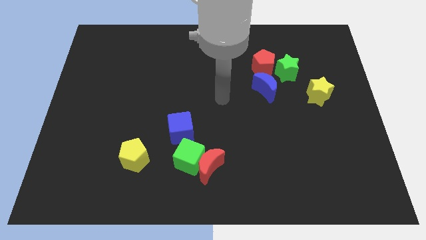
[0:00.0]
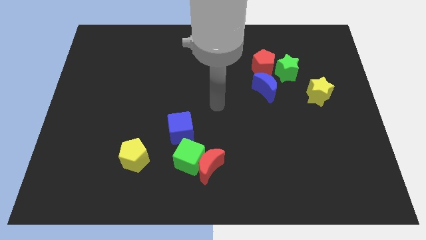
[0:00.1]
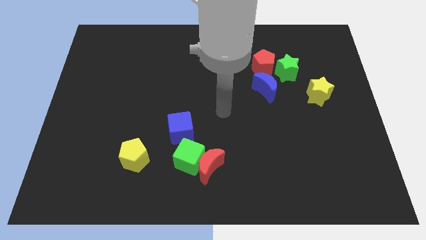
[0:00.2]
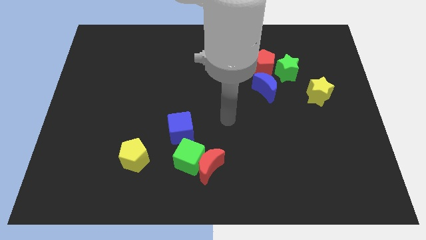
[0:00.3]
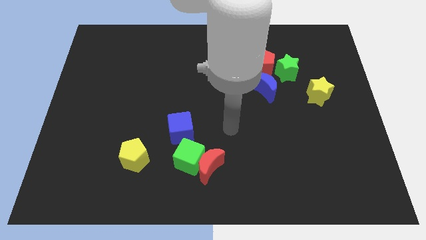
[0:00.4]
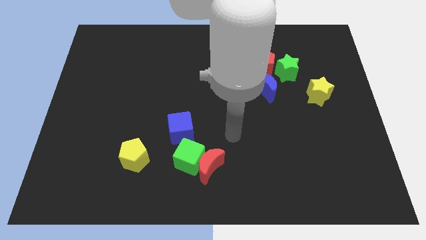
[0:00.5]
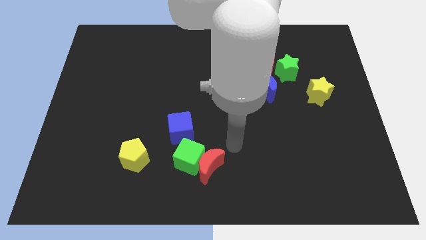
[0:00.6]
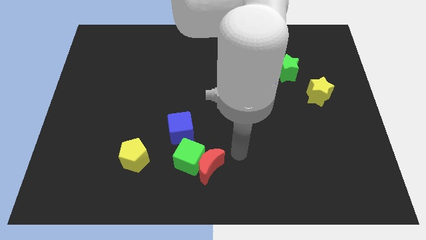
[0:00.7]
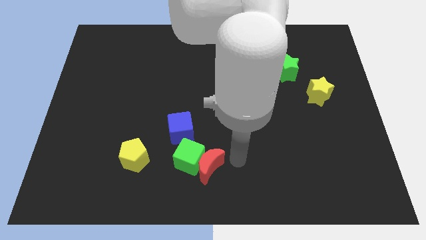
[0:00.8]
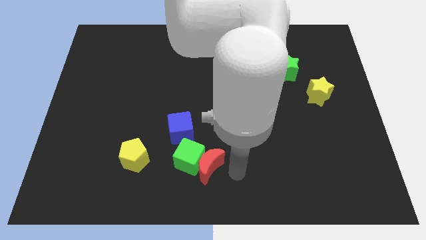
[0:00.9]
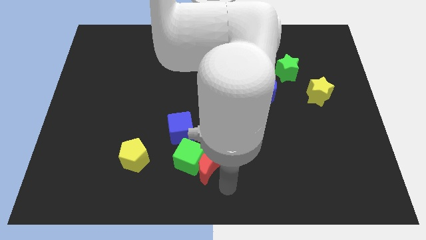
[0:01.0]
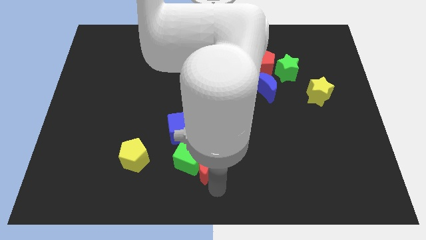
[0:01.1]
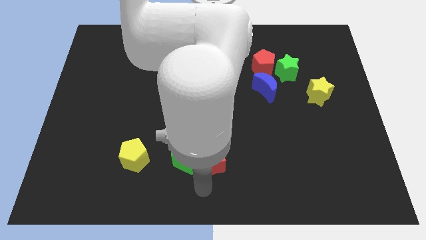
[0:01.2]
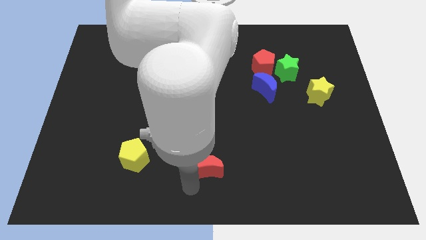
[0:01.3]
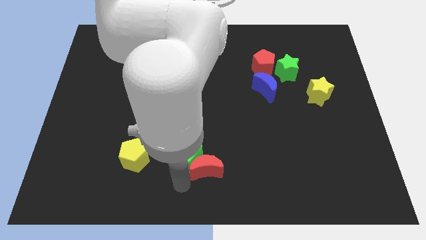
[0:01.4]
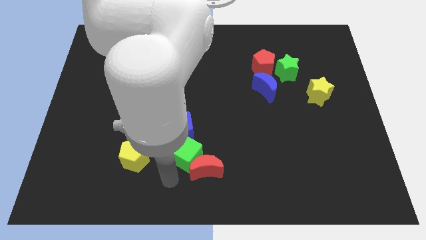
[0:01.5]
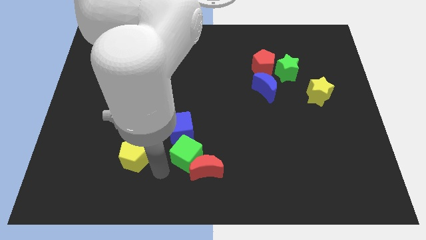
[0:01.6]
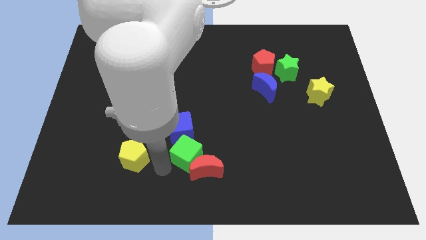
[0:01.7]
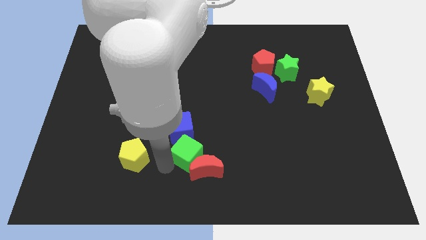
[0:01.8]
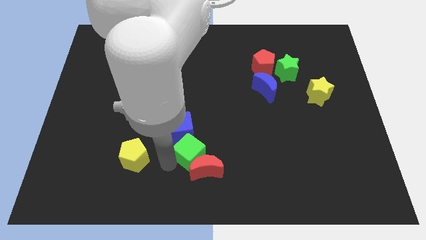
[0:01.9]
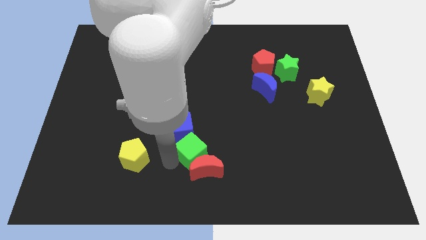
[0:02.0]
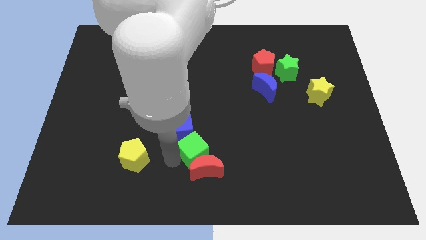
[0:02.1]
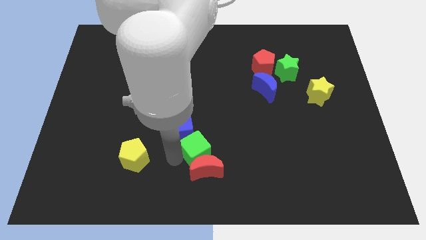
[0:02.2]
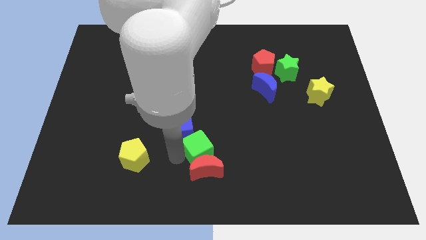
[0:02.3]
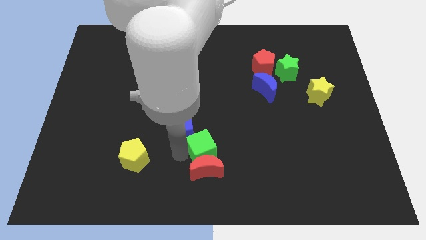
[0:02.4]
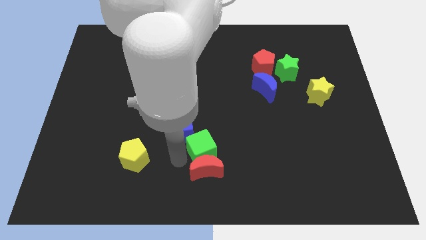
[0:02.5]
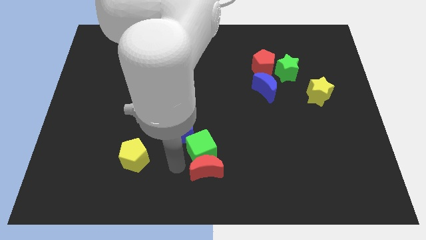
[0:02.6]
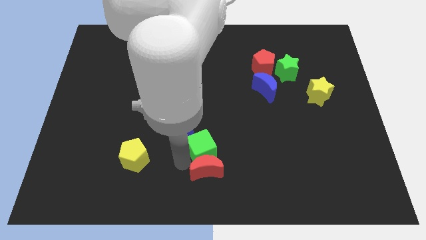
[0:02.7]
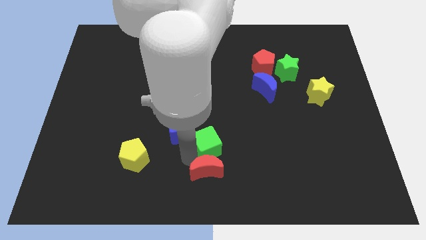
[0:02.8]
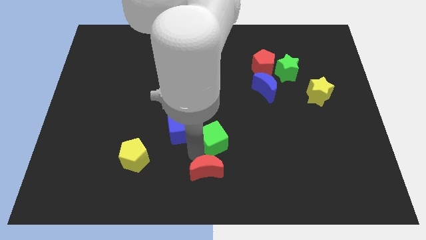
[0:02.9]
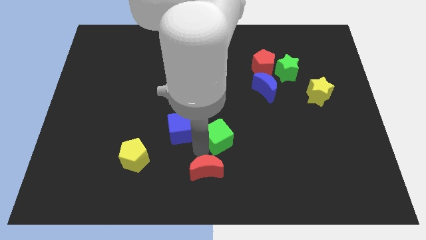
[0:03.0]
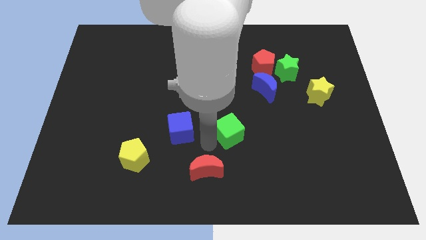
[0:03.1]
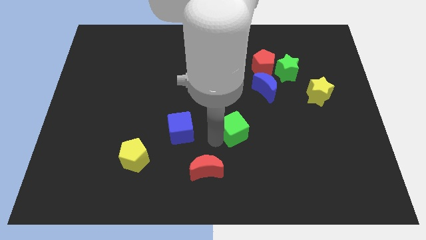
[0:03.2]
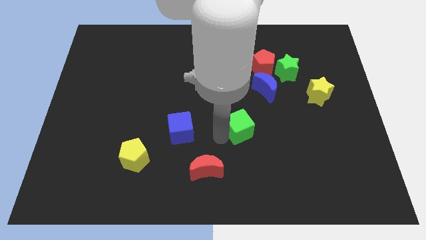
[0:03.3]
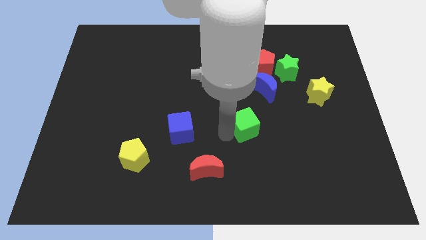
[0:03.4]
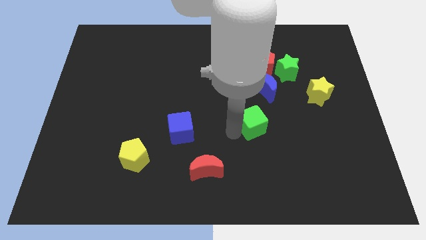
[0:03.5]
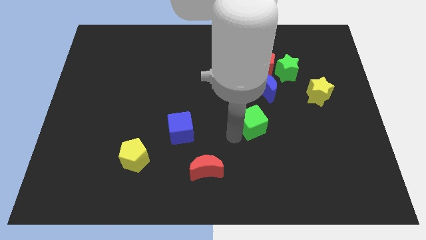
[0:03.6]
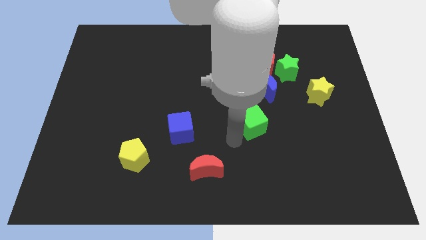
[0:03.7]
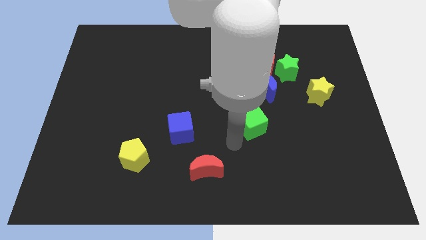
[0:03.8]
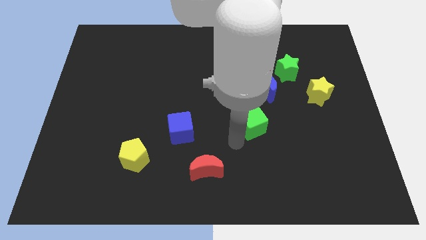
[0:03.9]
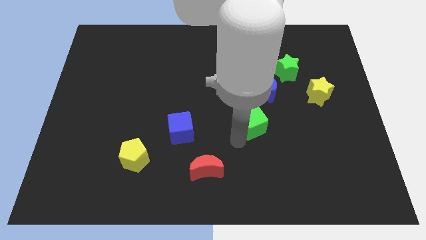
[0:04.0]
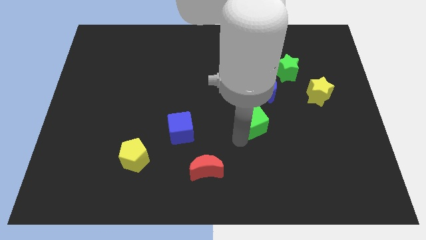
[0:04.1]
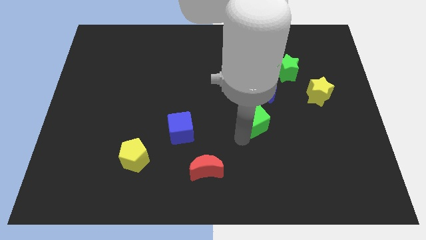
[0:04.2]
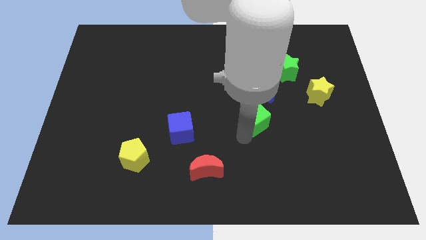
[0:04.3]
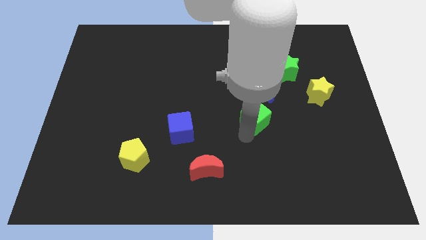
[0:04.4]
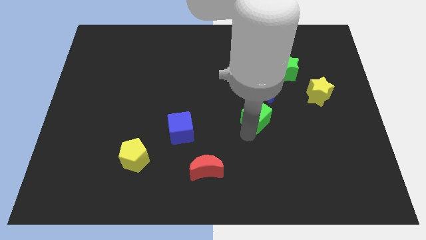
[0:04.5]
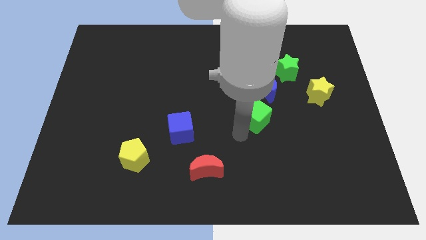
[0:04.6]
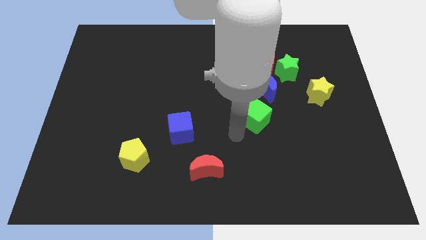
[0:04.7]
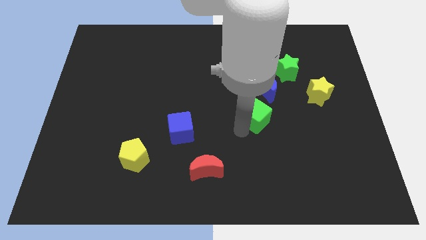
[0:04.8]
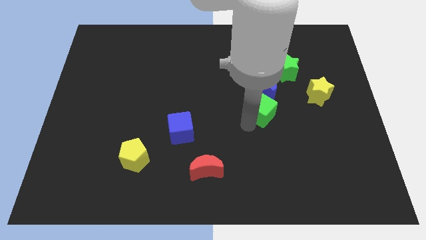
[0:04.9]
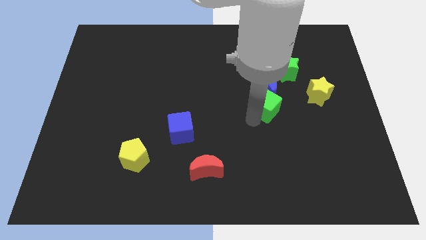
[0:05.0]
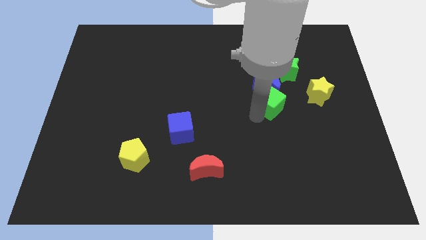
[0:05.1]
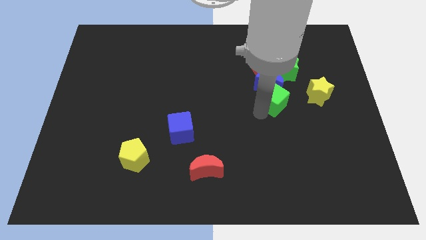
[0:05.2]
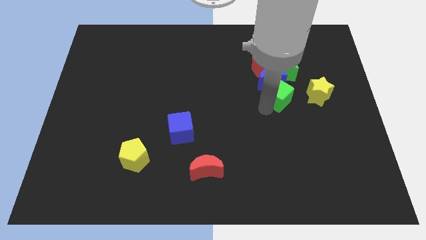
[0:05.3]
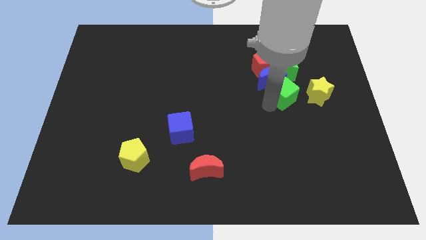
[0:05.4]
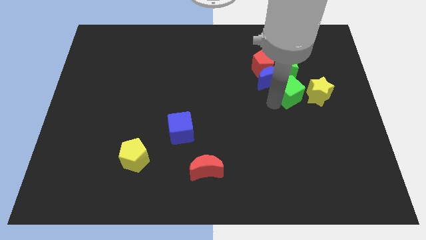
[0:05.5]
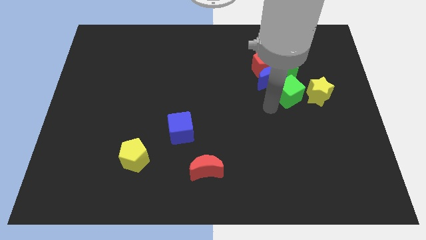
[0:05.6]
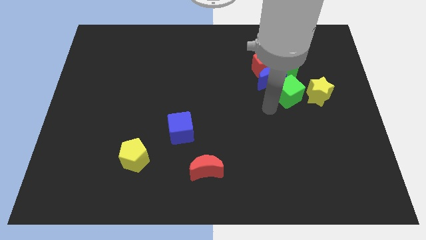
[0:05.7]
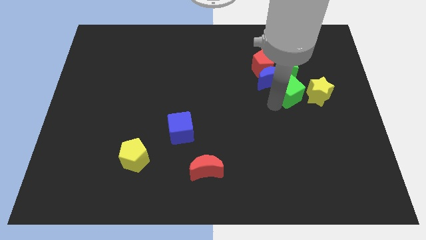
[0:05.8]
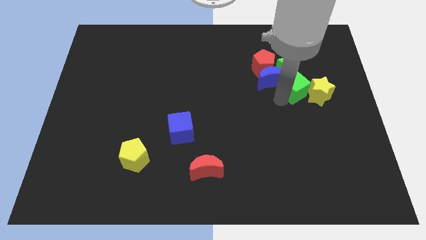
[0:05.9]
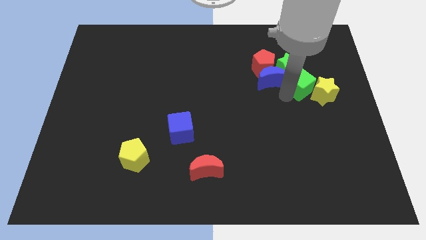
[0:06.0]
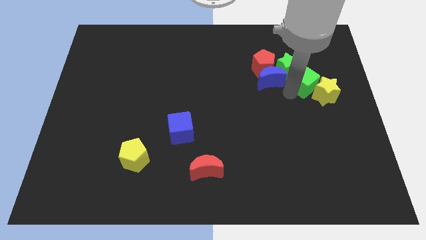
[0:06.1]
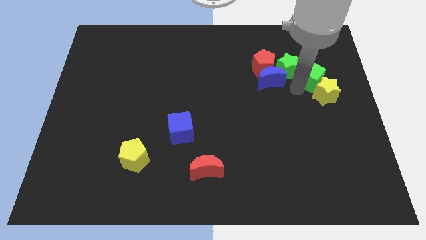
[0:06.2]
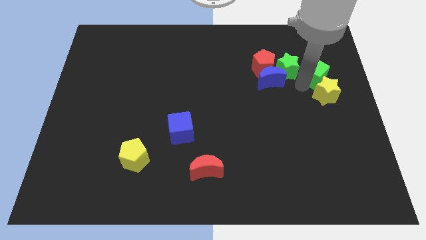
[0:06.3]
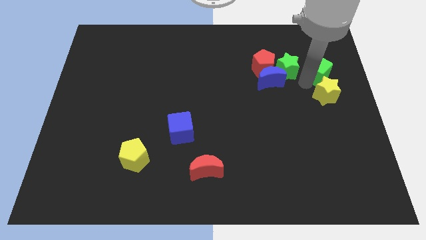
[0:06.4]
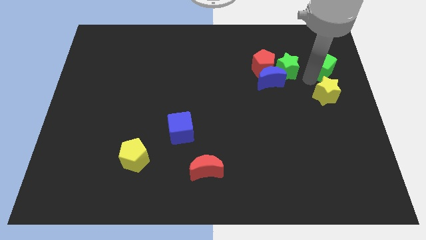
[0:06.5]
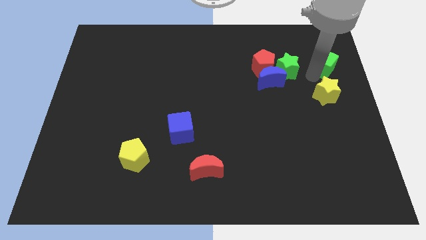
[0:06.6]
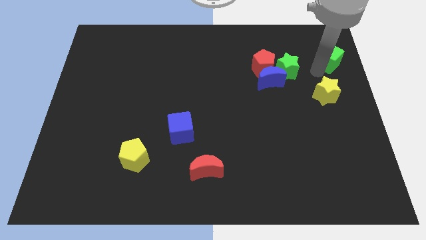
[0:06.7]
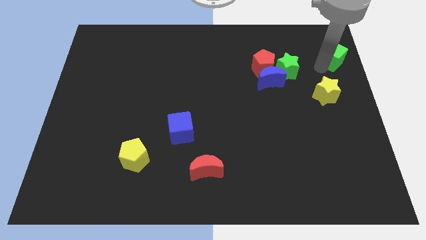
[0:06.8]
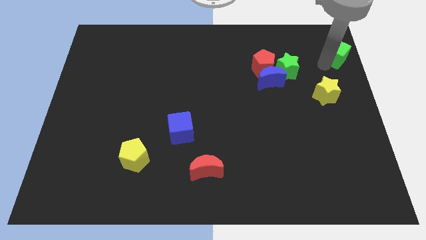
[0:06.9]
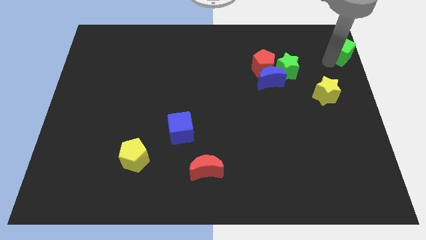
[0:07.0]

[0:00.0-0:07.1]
move the green cube to the top right of the board
